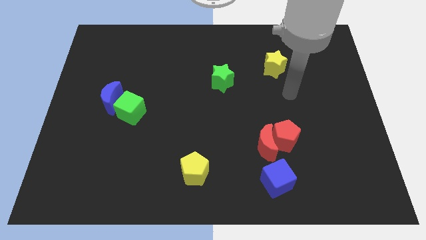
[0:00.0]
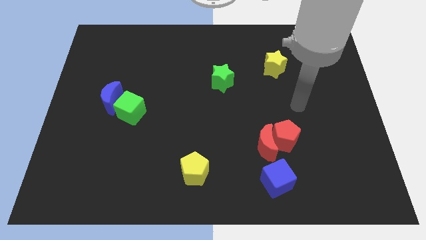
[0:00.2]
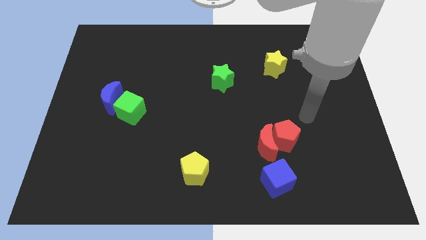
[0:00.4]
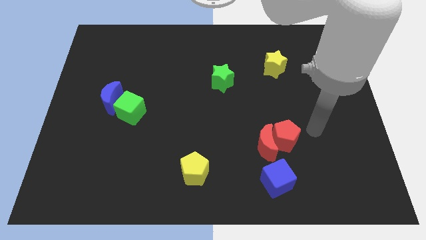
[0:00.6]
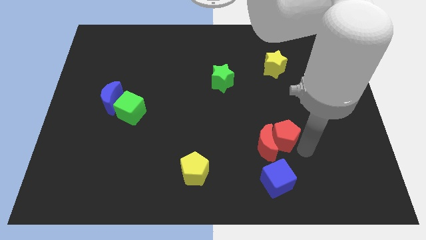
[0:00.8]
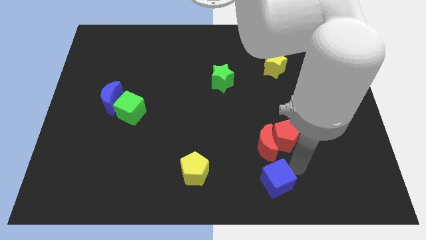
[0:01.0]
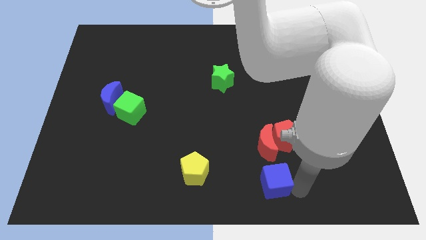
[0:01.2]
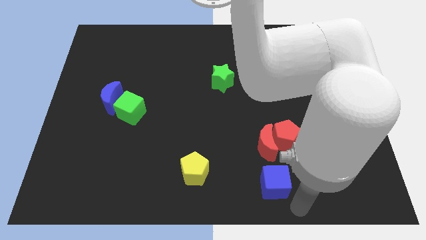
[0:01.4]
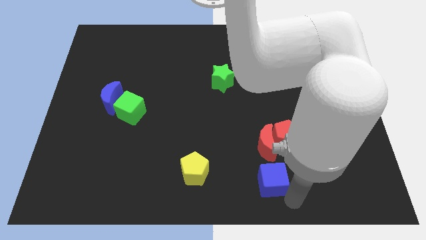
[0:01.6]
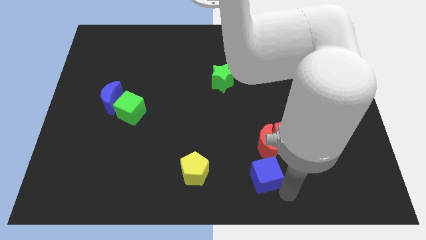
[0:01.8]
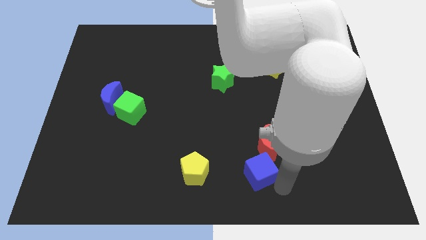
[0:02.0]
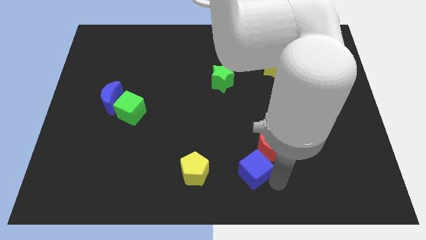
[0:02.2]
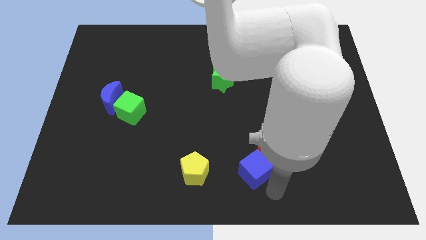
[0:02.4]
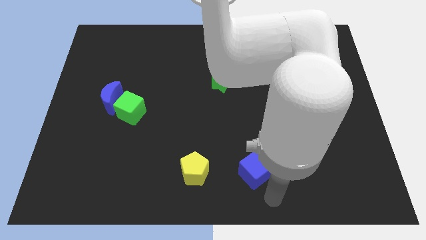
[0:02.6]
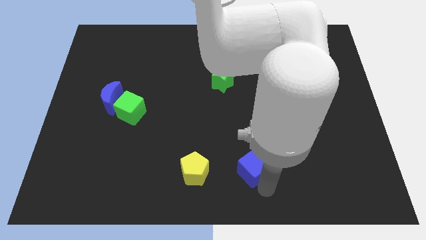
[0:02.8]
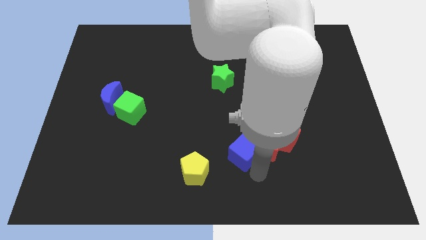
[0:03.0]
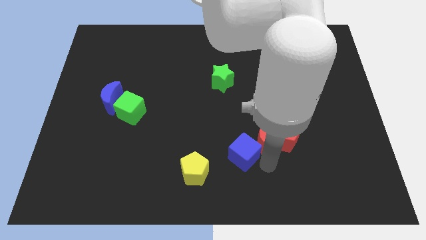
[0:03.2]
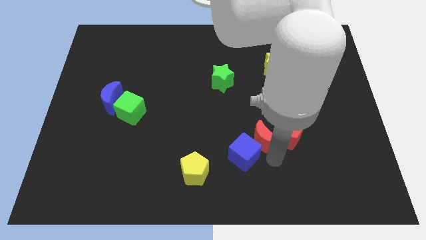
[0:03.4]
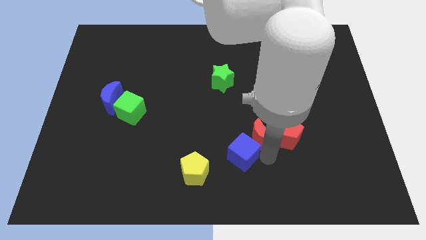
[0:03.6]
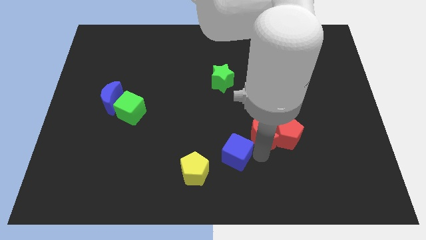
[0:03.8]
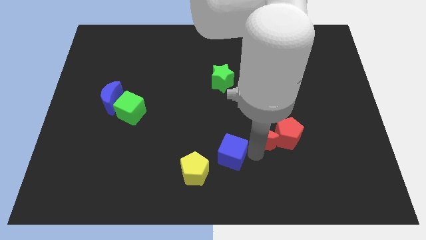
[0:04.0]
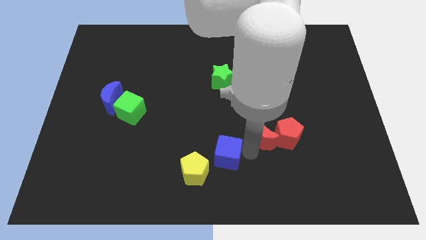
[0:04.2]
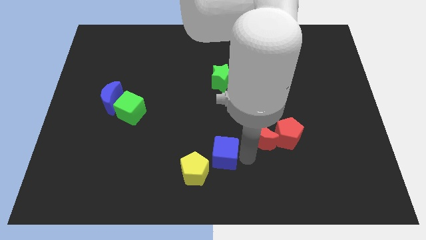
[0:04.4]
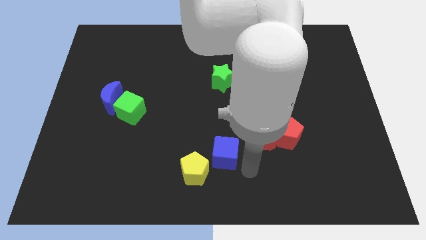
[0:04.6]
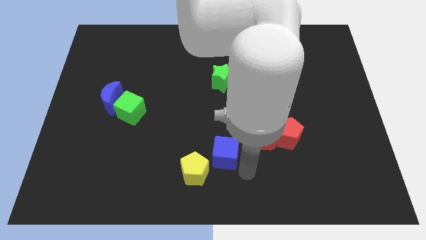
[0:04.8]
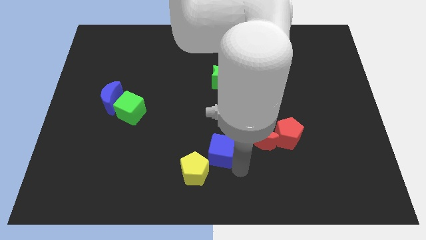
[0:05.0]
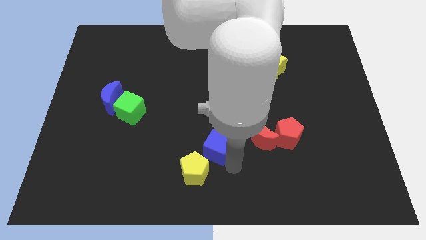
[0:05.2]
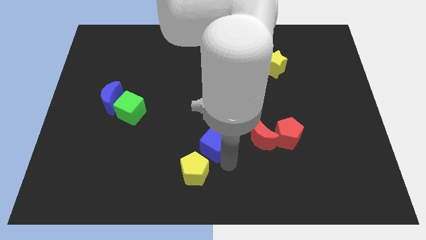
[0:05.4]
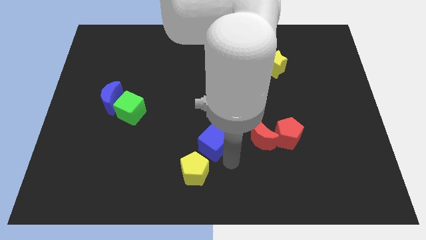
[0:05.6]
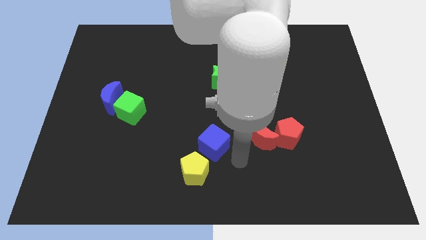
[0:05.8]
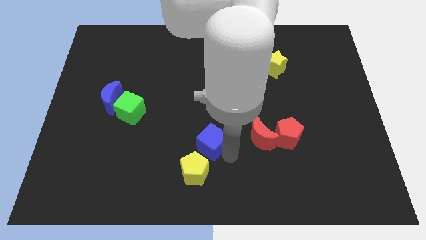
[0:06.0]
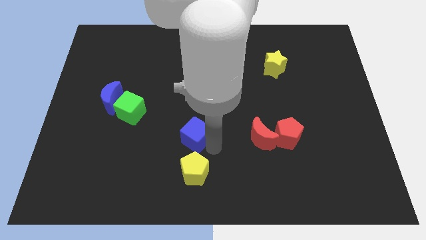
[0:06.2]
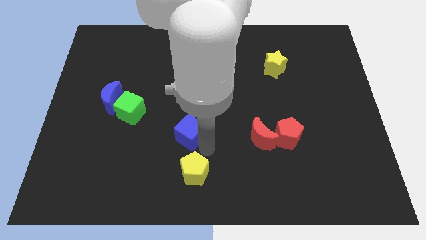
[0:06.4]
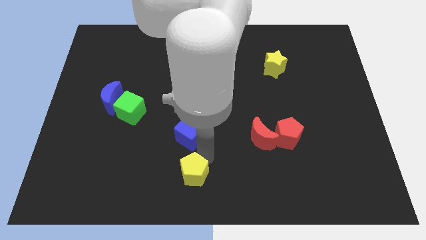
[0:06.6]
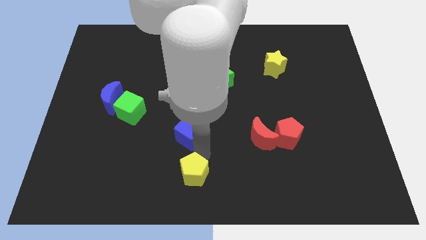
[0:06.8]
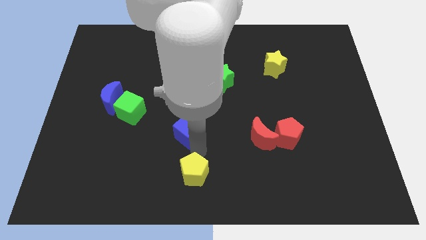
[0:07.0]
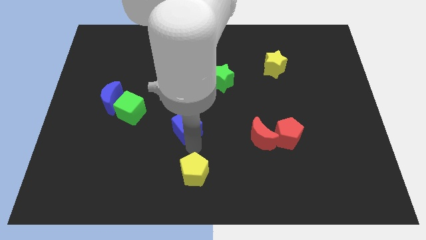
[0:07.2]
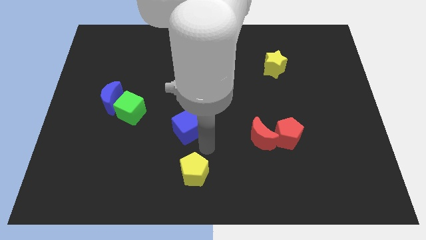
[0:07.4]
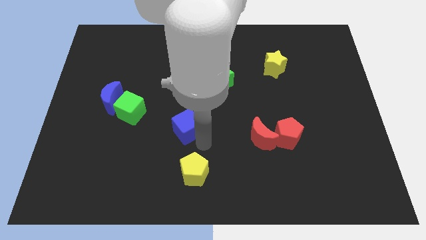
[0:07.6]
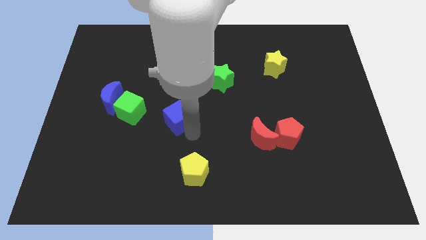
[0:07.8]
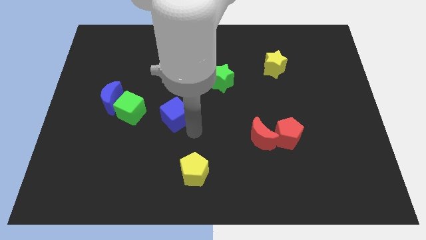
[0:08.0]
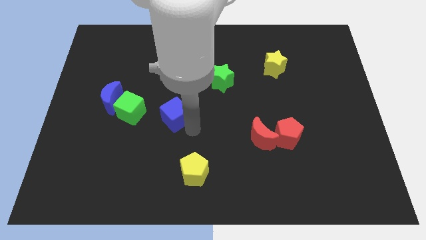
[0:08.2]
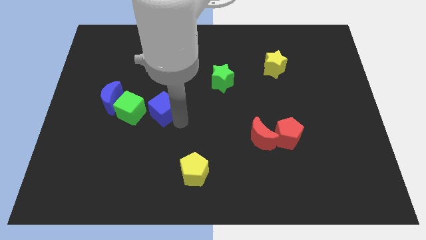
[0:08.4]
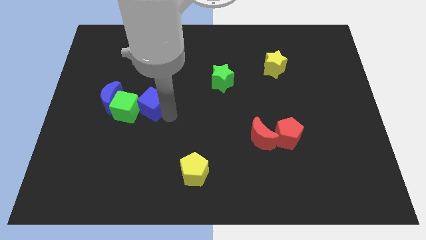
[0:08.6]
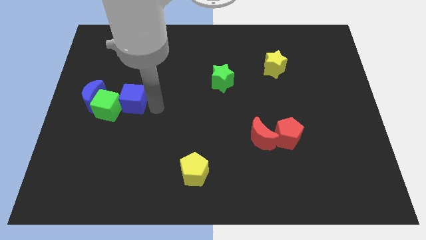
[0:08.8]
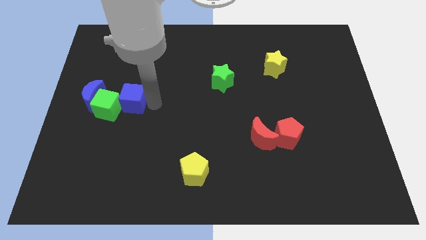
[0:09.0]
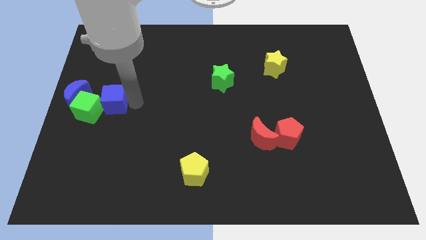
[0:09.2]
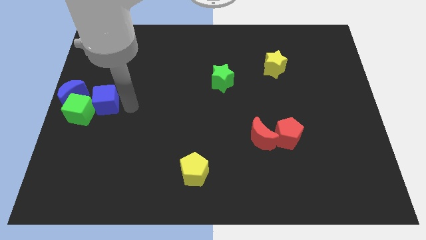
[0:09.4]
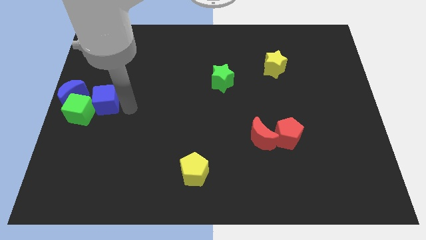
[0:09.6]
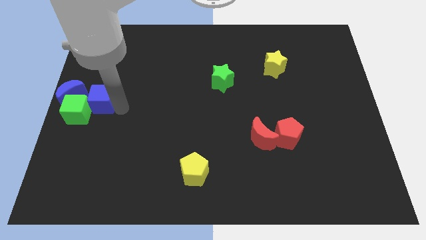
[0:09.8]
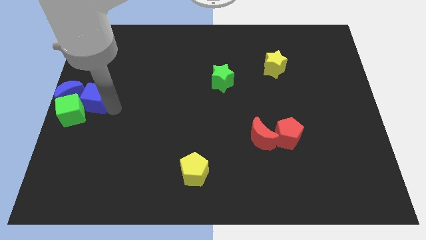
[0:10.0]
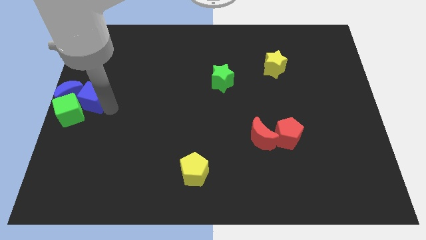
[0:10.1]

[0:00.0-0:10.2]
move the blue cube to the blue moon

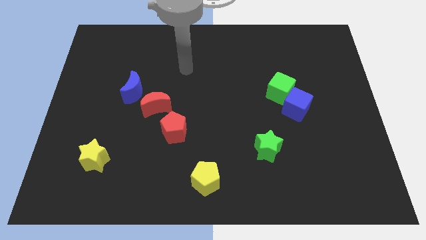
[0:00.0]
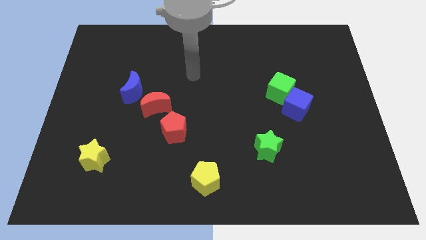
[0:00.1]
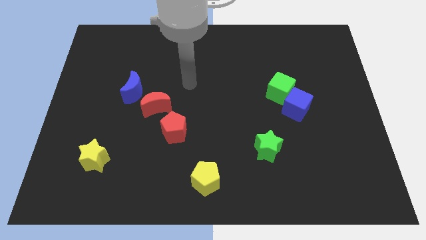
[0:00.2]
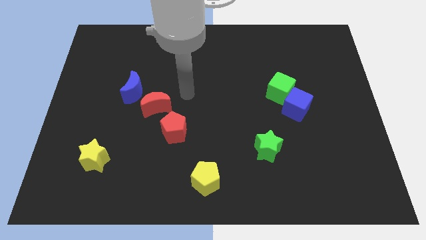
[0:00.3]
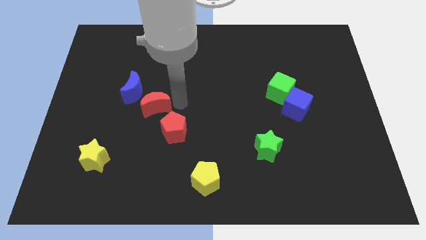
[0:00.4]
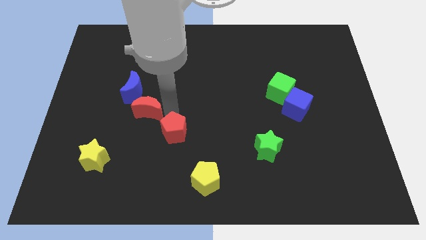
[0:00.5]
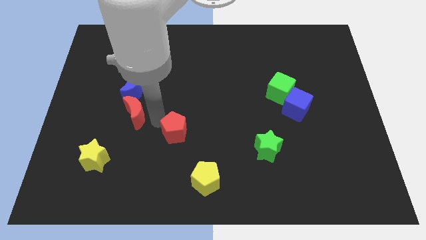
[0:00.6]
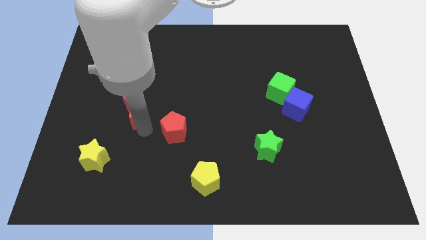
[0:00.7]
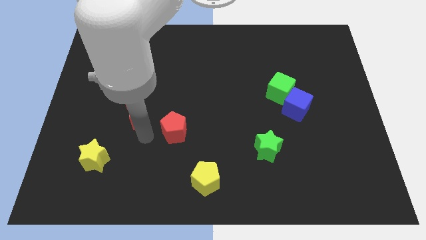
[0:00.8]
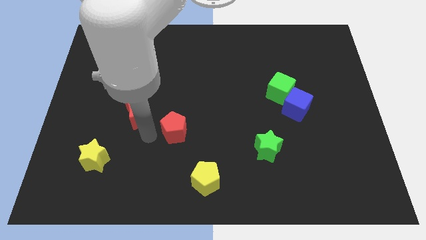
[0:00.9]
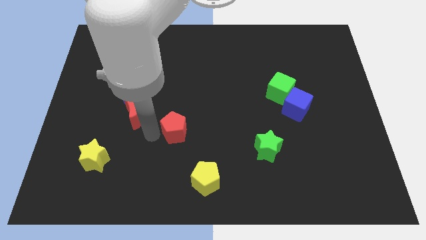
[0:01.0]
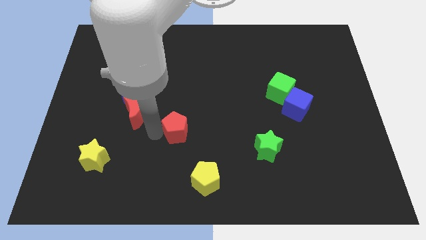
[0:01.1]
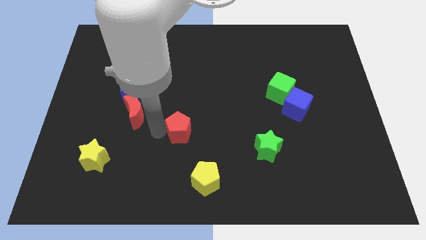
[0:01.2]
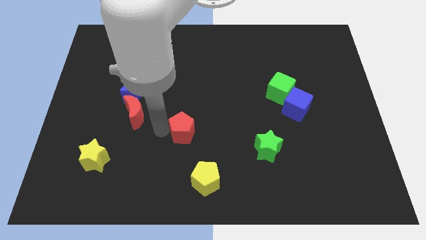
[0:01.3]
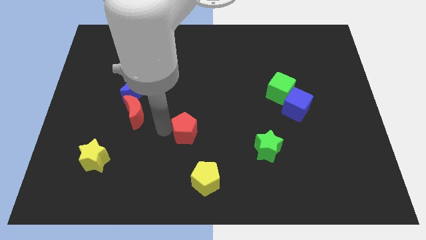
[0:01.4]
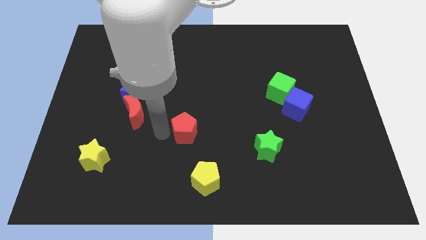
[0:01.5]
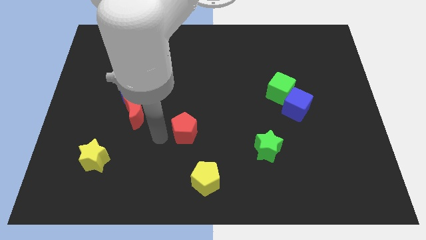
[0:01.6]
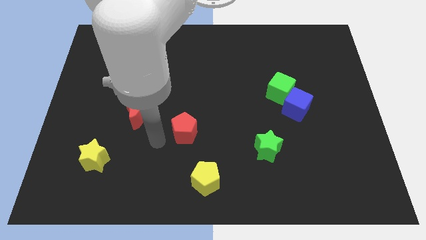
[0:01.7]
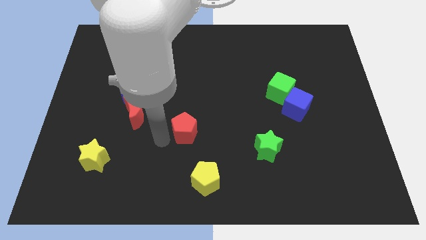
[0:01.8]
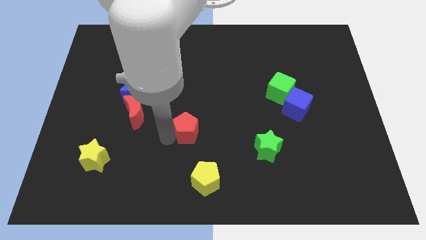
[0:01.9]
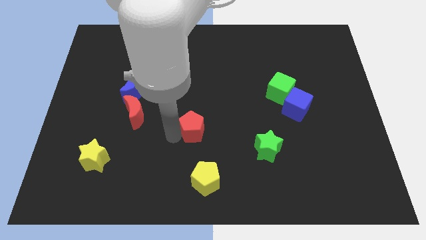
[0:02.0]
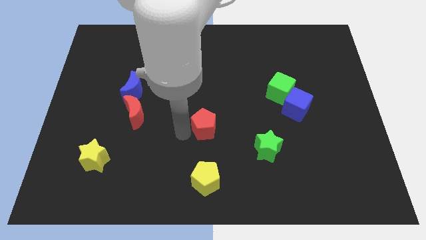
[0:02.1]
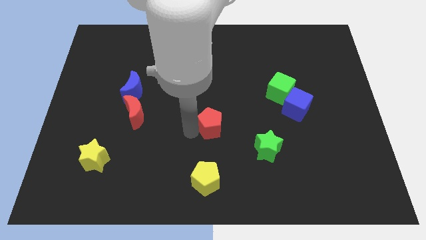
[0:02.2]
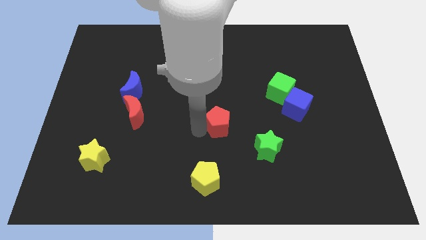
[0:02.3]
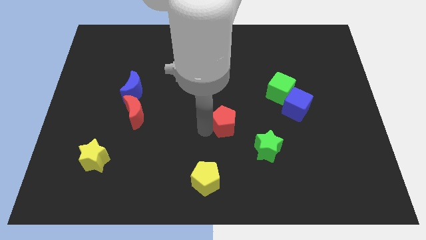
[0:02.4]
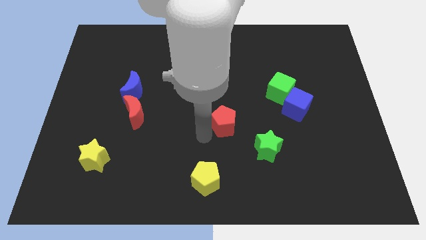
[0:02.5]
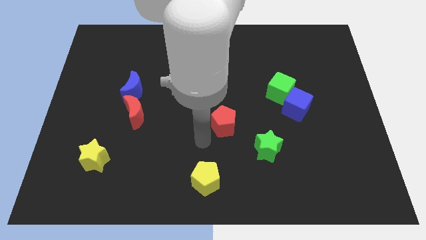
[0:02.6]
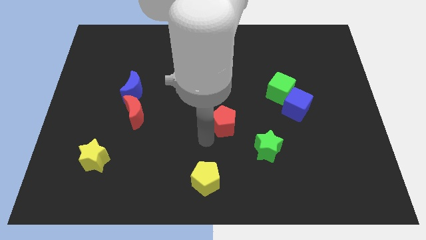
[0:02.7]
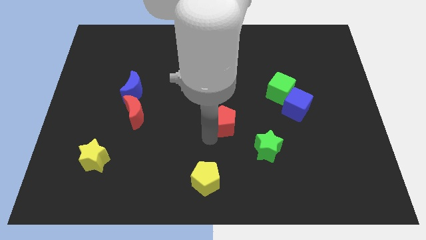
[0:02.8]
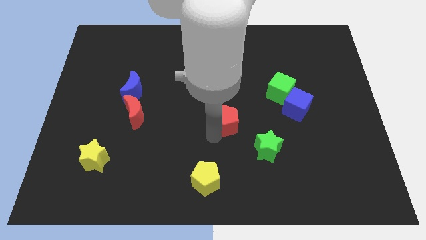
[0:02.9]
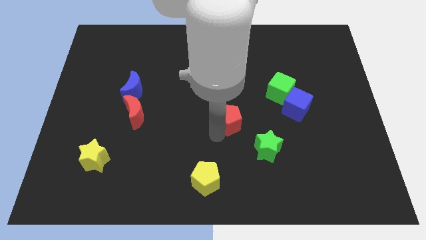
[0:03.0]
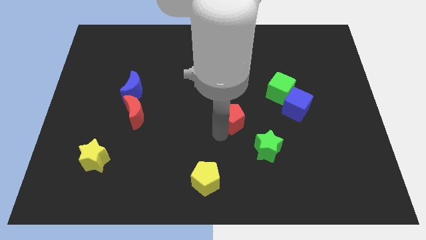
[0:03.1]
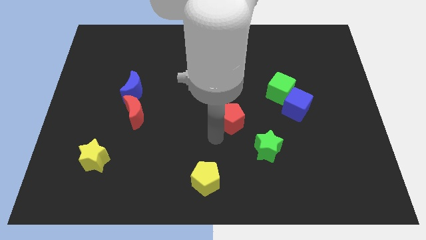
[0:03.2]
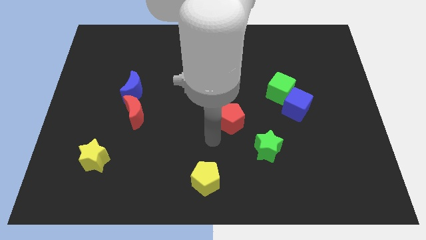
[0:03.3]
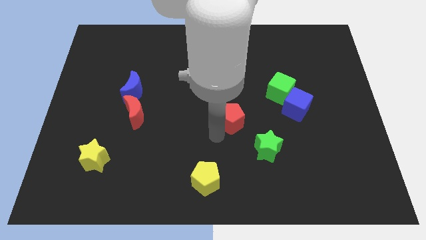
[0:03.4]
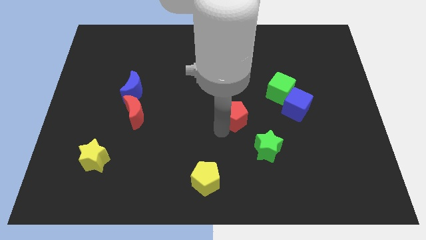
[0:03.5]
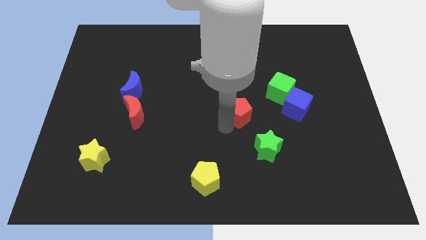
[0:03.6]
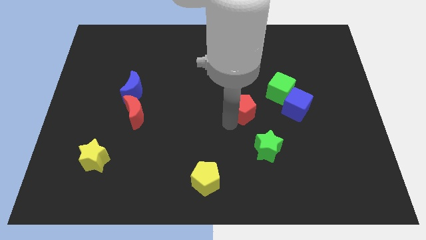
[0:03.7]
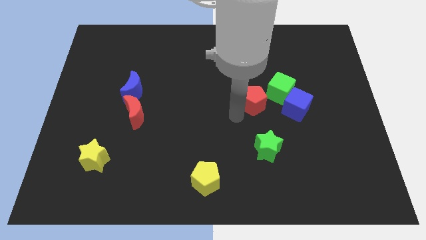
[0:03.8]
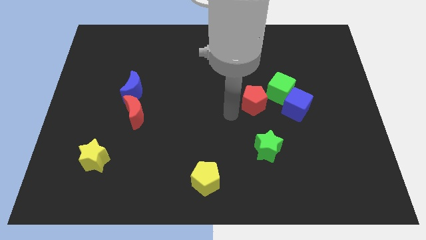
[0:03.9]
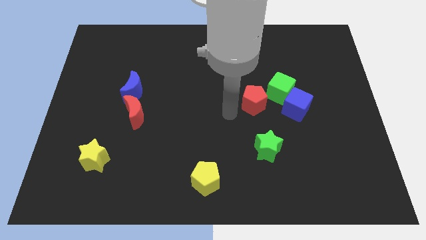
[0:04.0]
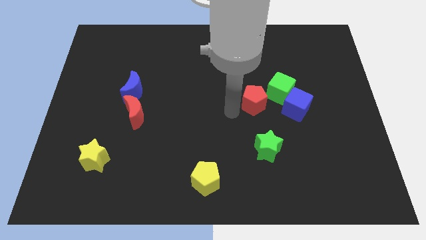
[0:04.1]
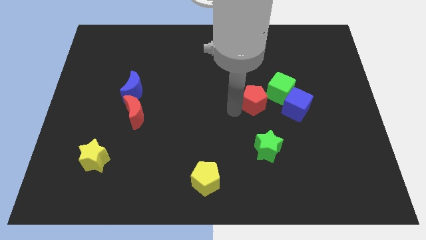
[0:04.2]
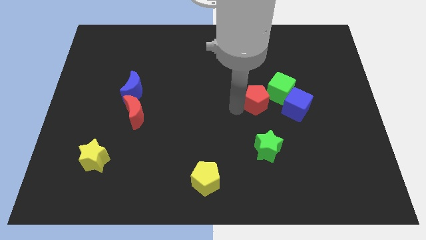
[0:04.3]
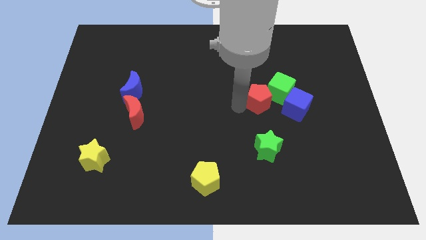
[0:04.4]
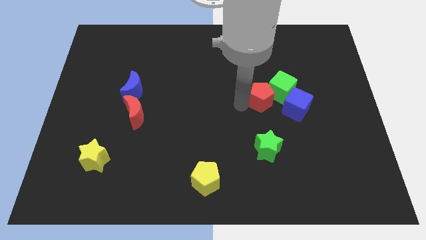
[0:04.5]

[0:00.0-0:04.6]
put the red pentagon to the green cube
